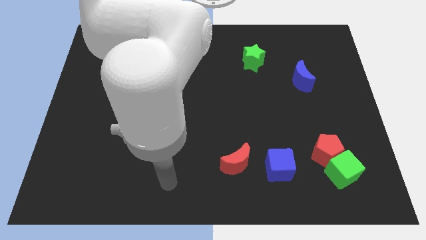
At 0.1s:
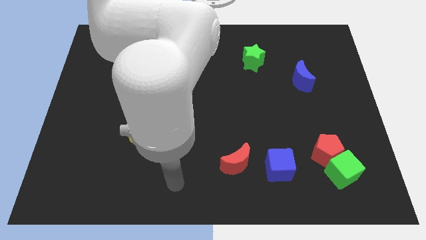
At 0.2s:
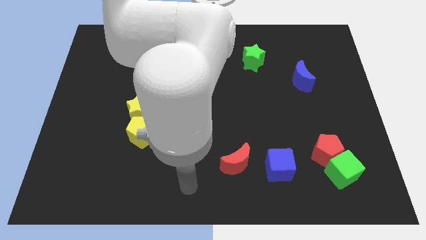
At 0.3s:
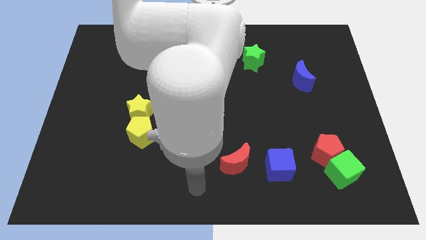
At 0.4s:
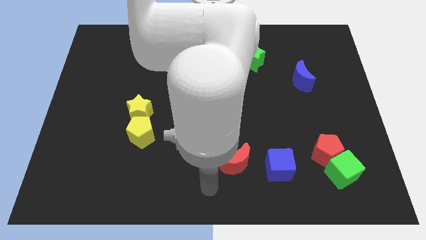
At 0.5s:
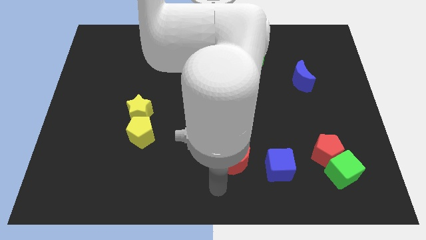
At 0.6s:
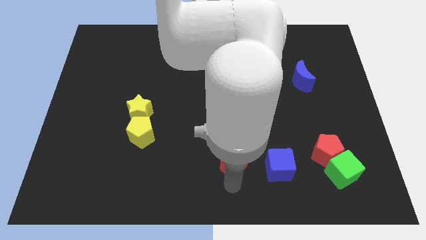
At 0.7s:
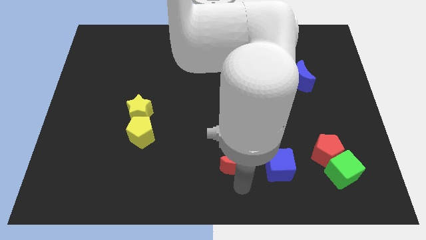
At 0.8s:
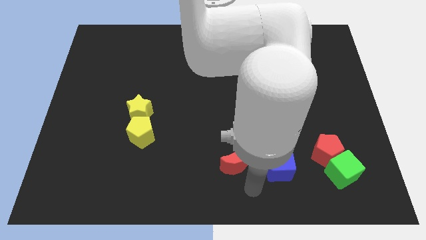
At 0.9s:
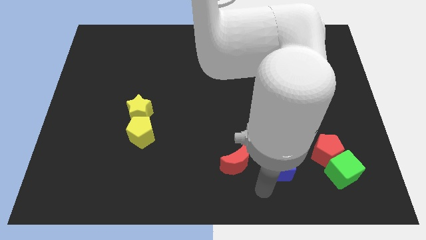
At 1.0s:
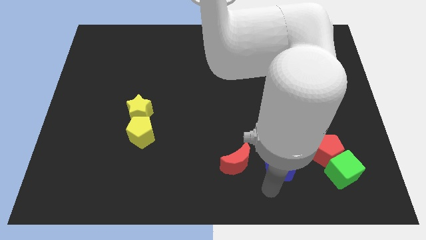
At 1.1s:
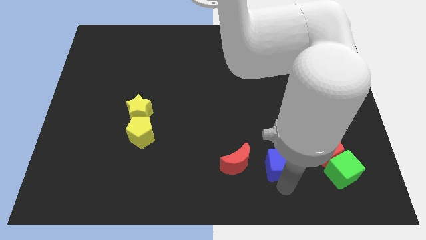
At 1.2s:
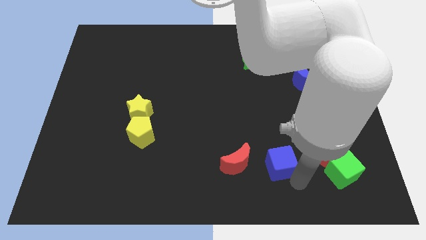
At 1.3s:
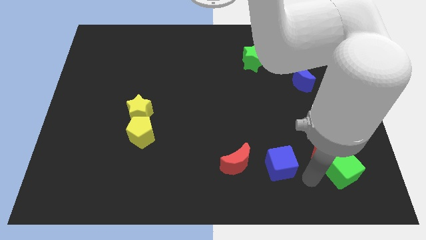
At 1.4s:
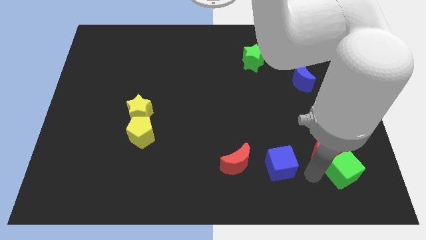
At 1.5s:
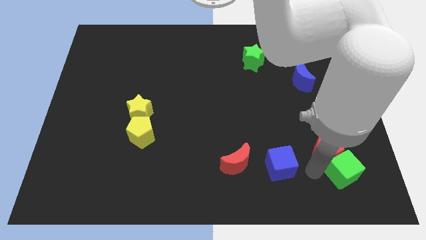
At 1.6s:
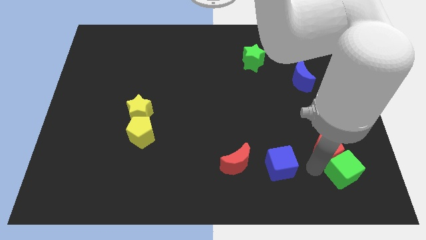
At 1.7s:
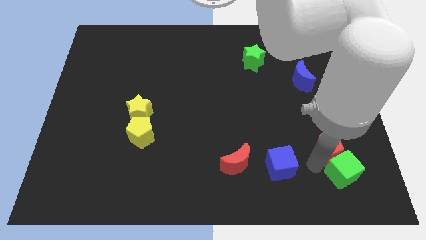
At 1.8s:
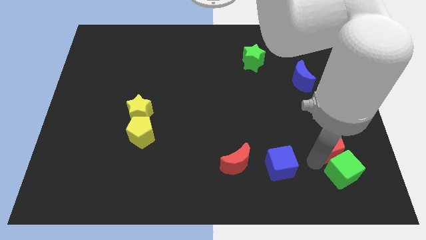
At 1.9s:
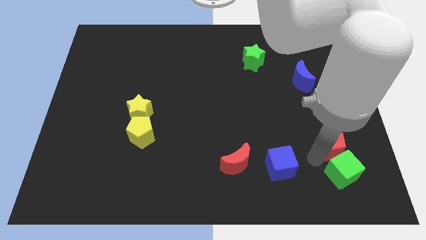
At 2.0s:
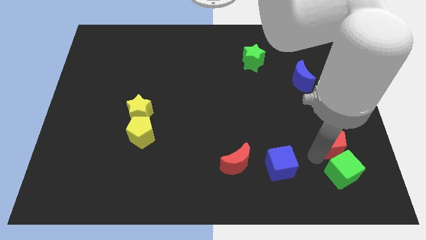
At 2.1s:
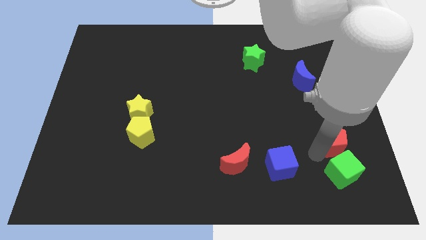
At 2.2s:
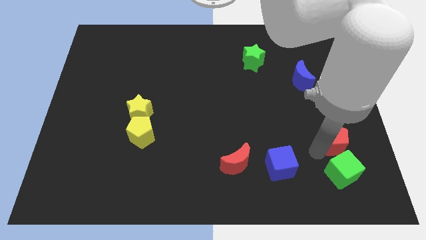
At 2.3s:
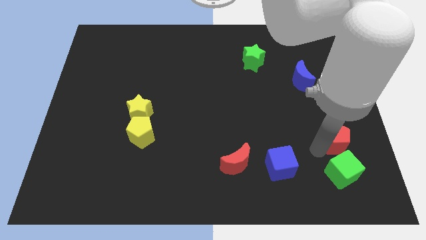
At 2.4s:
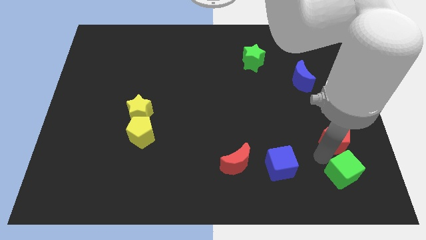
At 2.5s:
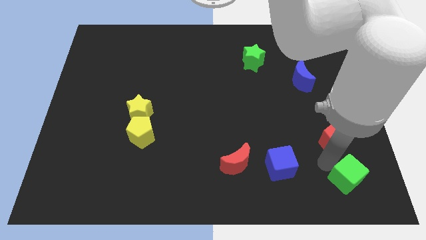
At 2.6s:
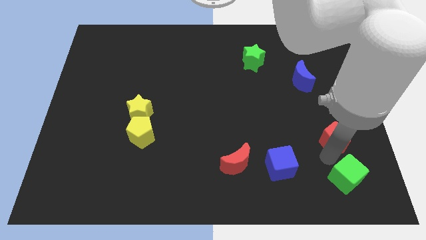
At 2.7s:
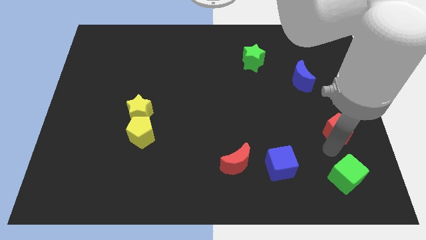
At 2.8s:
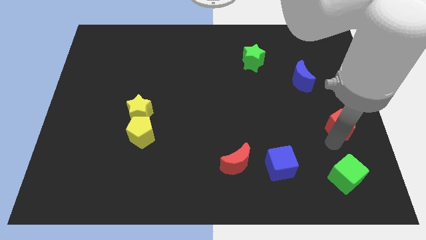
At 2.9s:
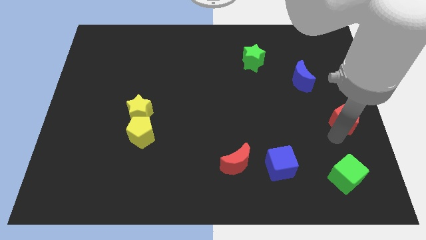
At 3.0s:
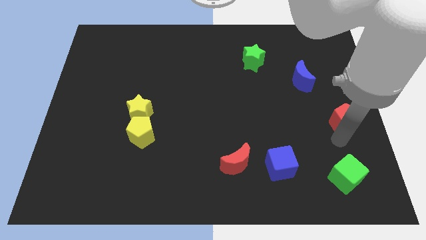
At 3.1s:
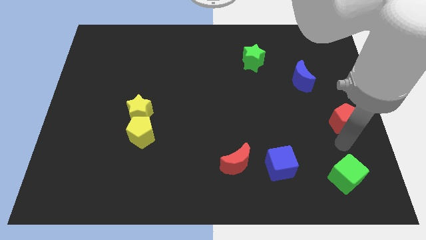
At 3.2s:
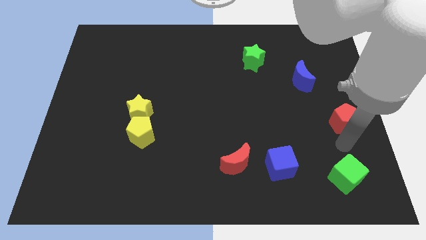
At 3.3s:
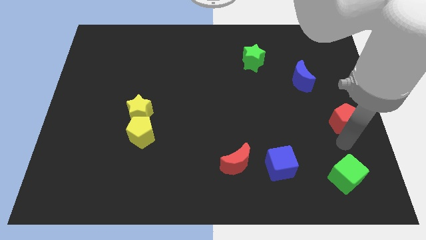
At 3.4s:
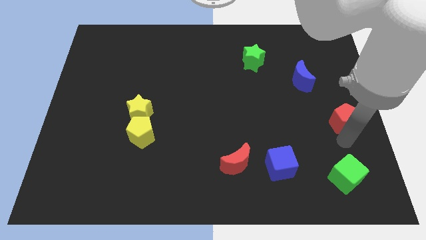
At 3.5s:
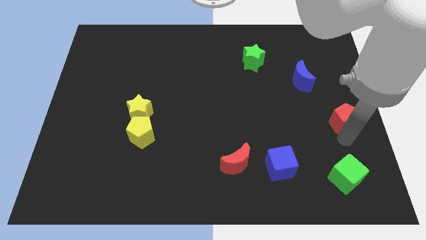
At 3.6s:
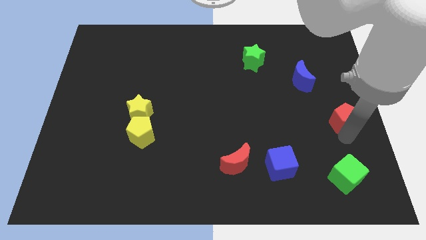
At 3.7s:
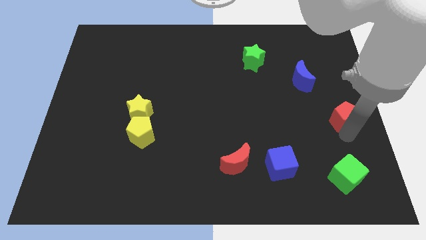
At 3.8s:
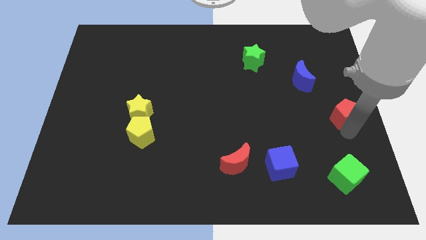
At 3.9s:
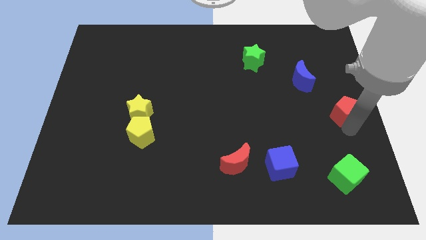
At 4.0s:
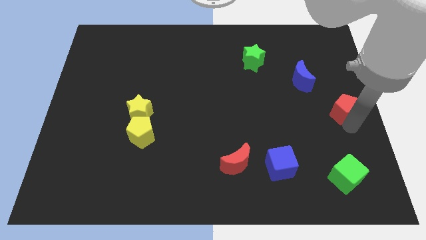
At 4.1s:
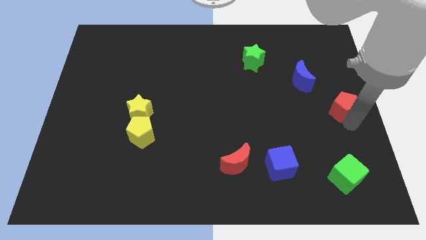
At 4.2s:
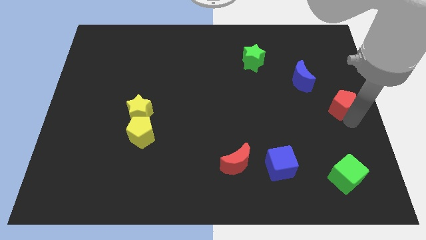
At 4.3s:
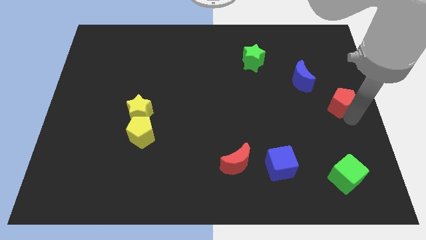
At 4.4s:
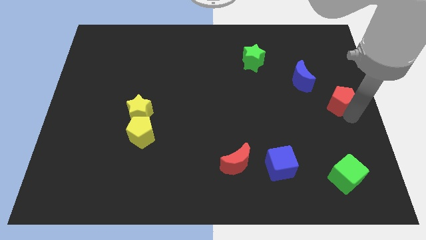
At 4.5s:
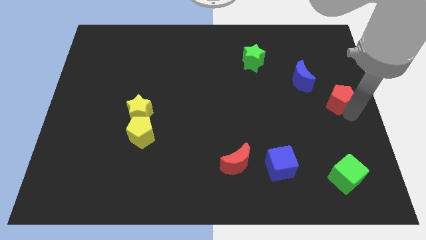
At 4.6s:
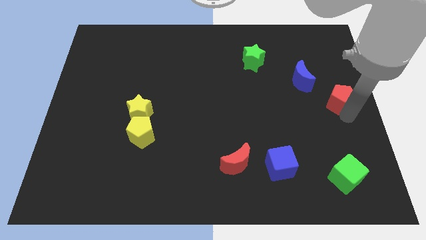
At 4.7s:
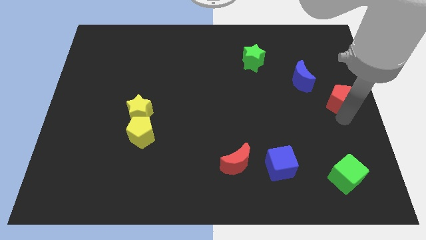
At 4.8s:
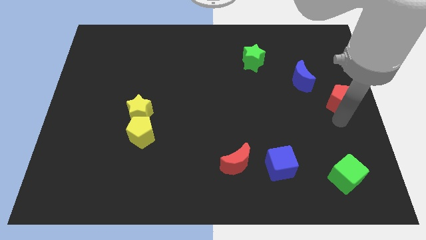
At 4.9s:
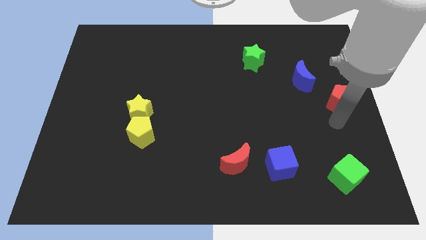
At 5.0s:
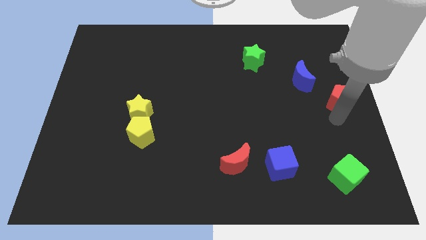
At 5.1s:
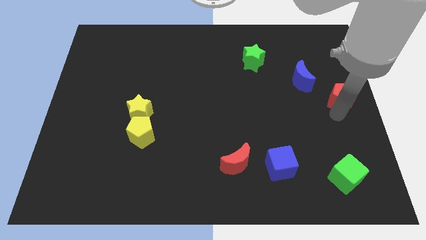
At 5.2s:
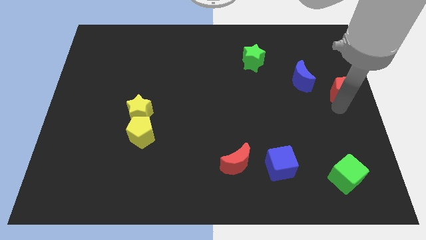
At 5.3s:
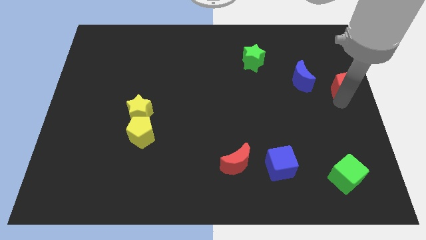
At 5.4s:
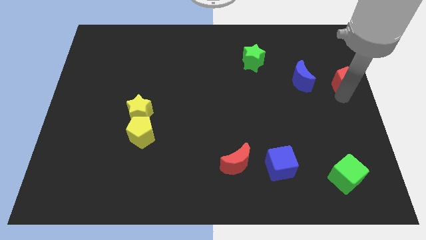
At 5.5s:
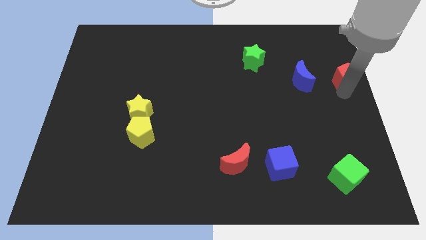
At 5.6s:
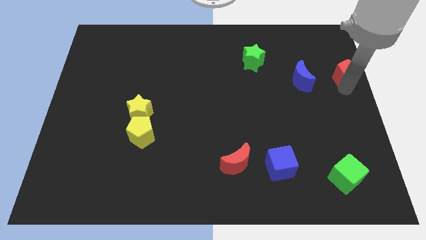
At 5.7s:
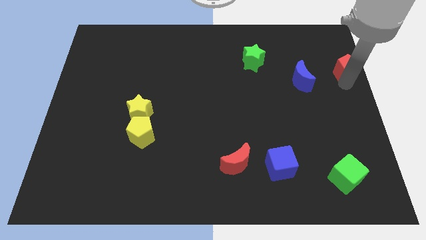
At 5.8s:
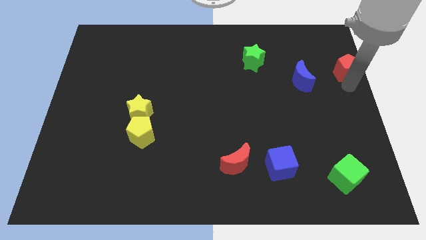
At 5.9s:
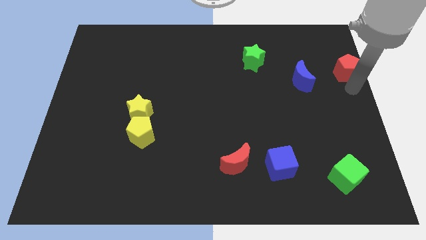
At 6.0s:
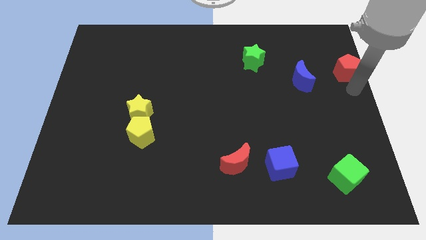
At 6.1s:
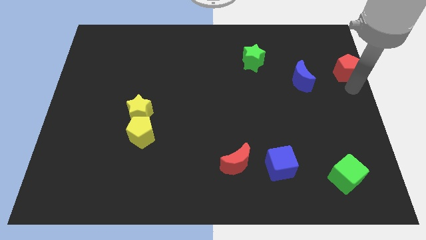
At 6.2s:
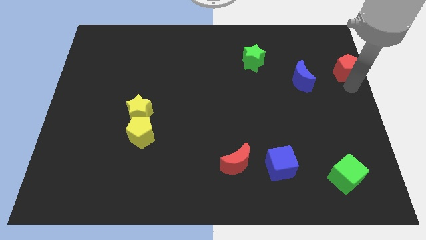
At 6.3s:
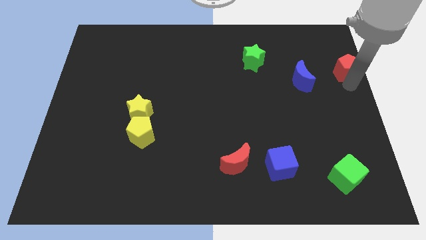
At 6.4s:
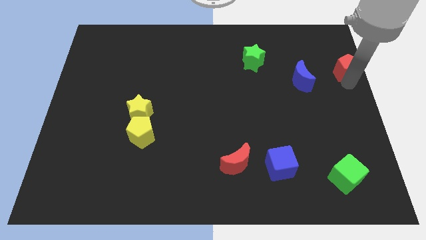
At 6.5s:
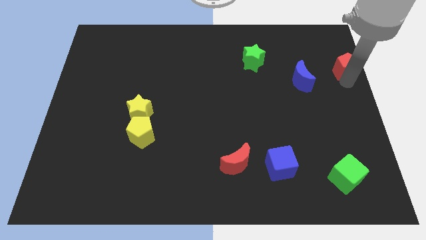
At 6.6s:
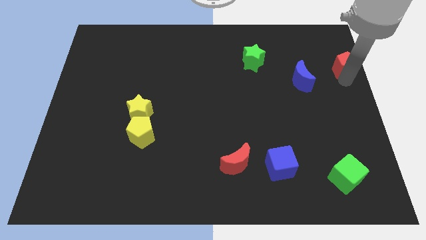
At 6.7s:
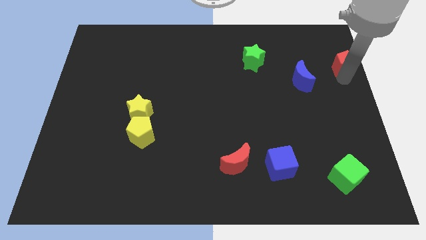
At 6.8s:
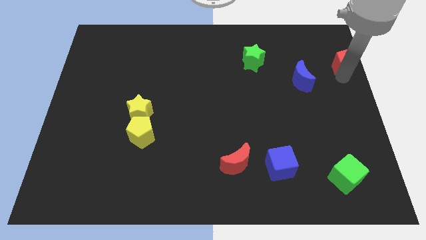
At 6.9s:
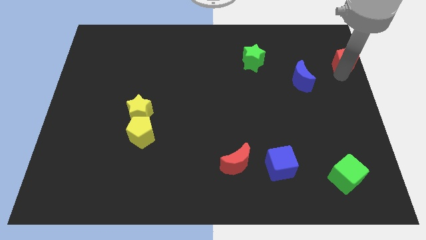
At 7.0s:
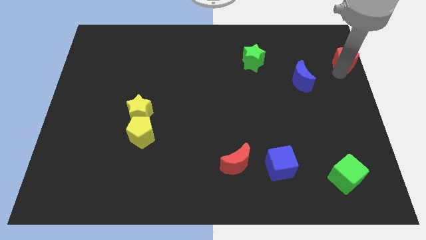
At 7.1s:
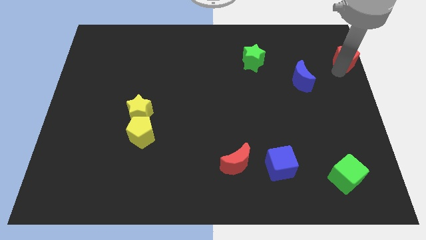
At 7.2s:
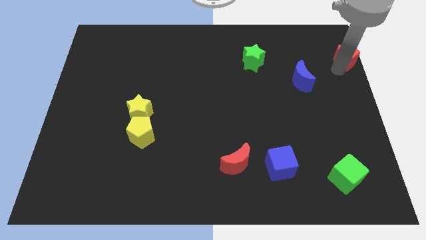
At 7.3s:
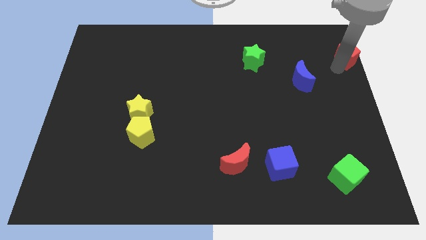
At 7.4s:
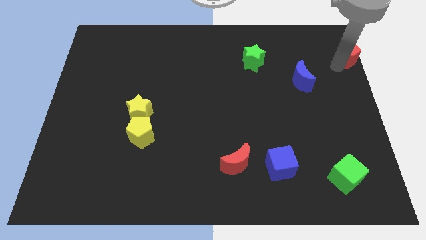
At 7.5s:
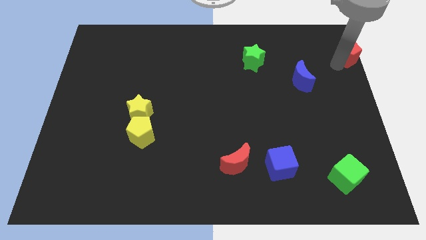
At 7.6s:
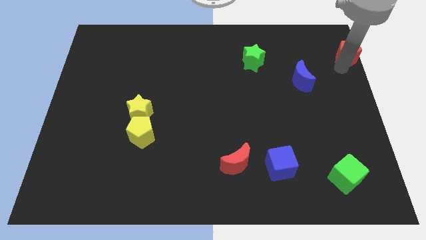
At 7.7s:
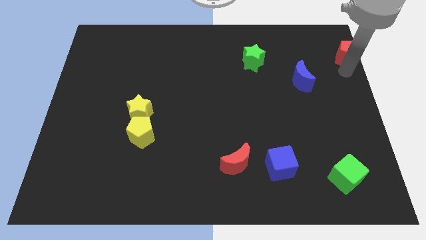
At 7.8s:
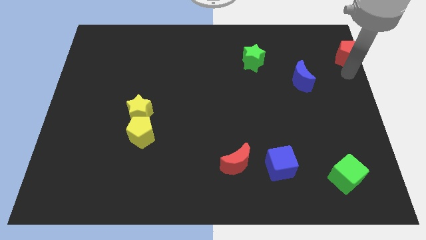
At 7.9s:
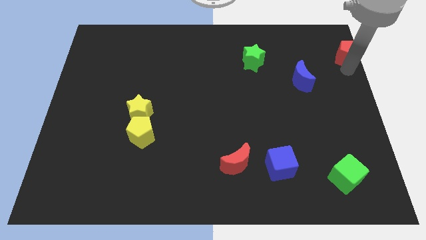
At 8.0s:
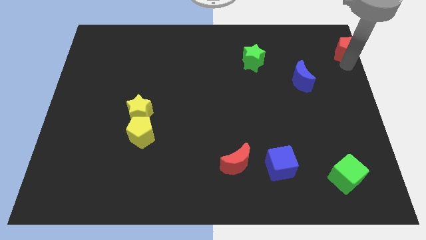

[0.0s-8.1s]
move the red pentagon to the top right of the board
